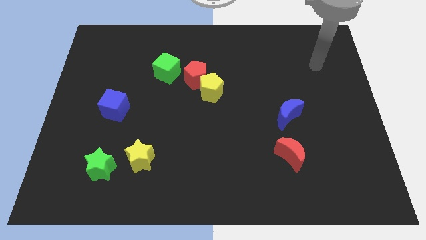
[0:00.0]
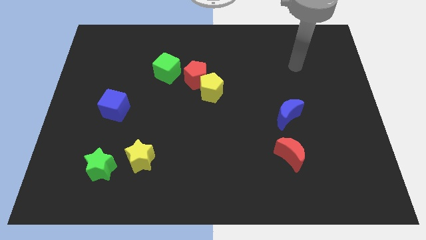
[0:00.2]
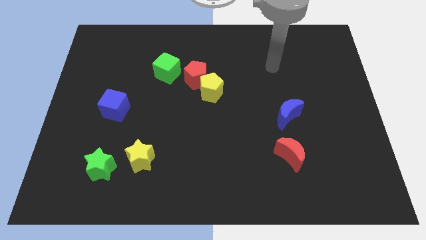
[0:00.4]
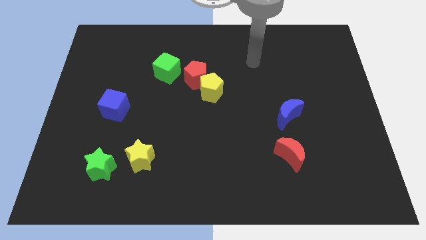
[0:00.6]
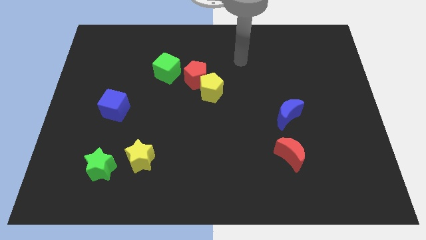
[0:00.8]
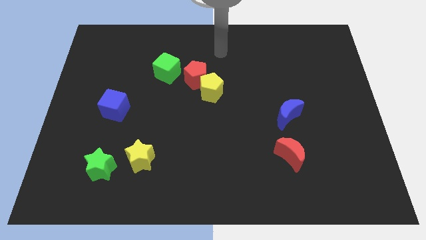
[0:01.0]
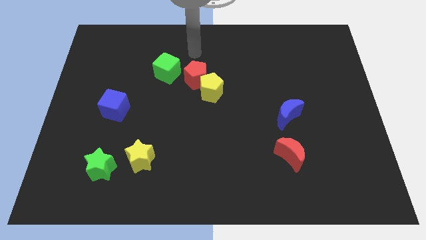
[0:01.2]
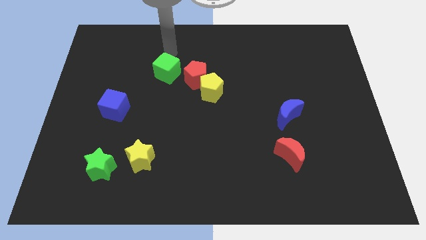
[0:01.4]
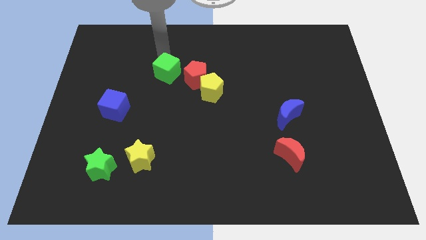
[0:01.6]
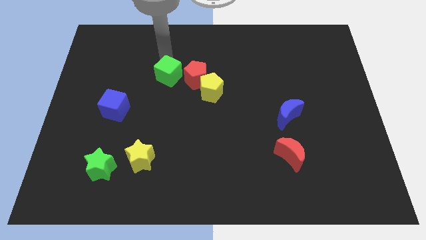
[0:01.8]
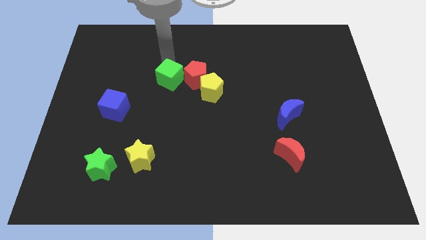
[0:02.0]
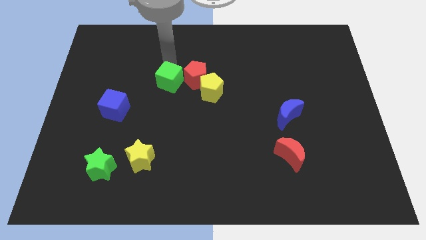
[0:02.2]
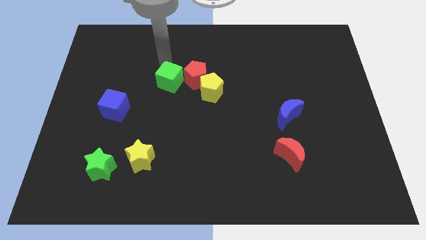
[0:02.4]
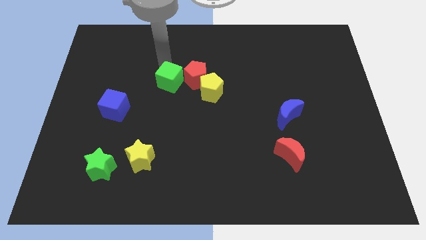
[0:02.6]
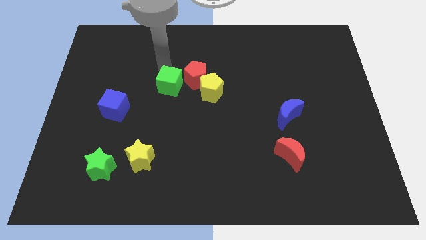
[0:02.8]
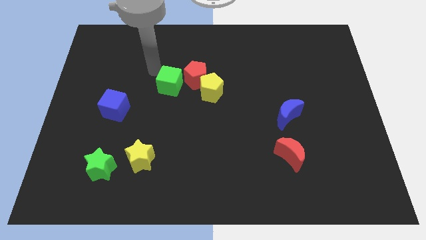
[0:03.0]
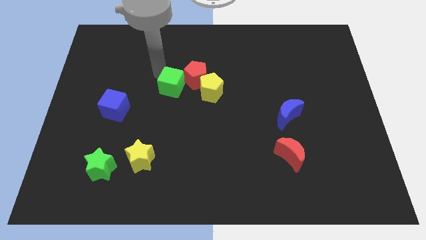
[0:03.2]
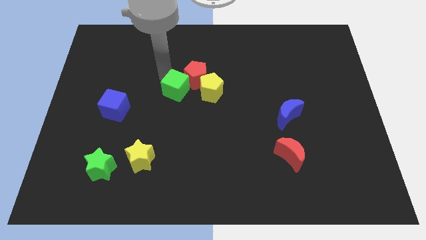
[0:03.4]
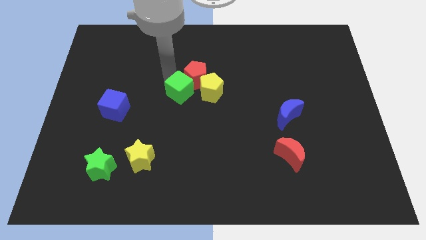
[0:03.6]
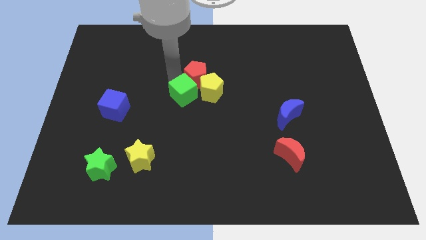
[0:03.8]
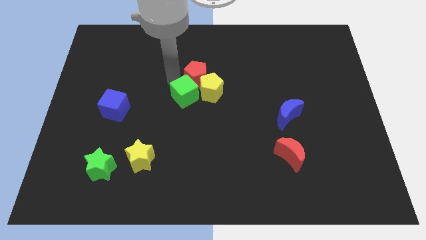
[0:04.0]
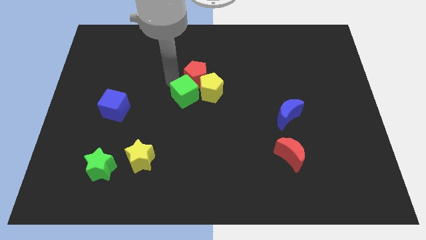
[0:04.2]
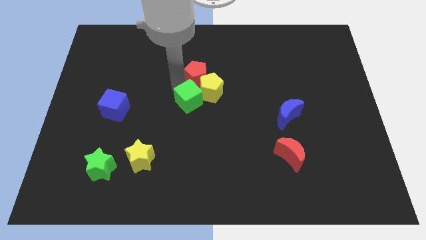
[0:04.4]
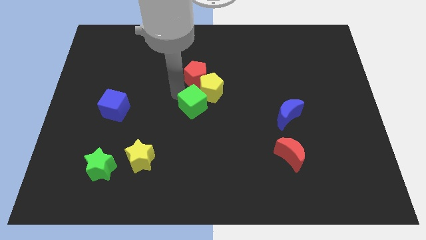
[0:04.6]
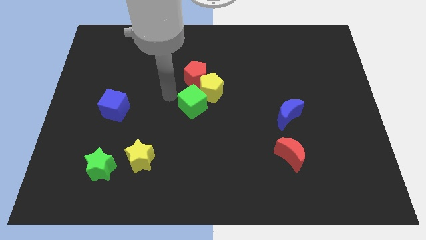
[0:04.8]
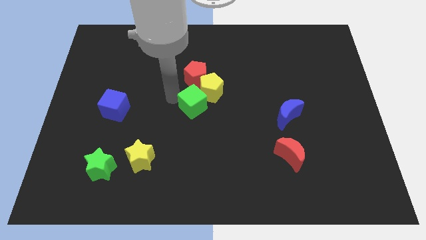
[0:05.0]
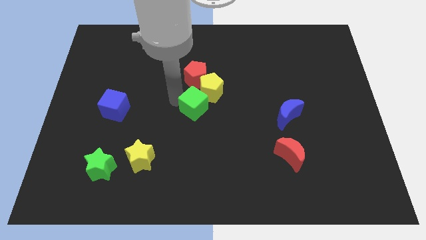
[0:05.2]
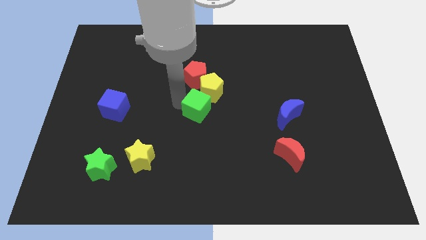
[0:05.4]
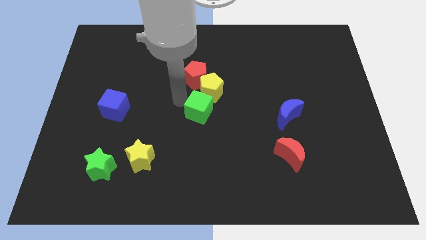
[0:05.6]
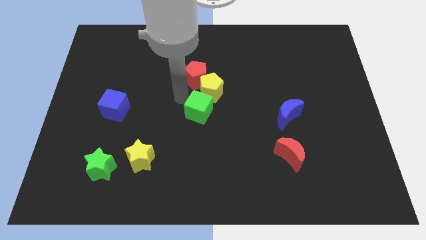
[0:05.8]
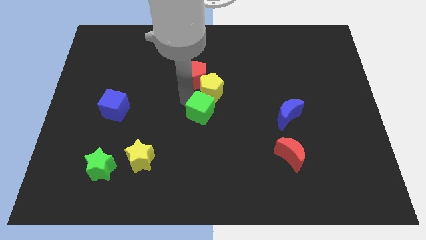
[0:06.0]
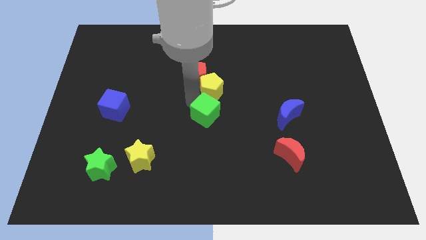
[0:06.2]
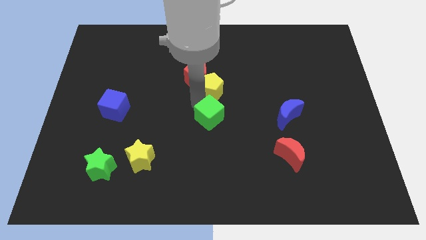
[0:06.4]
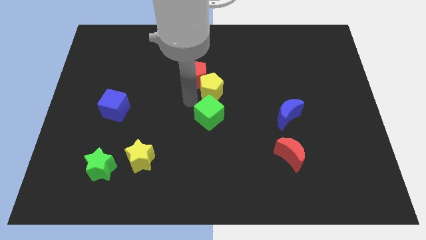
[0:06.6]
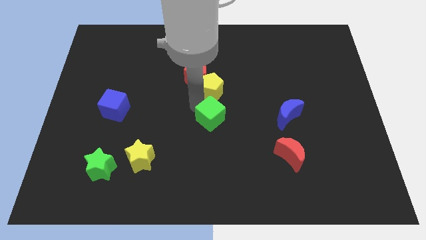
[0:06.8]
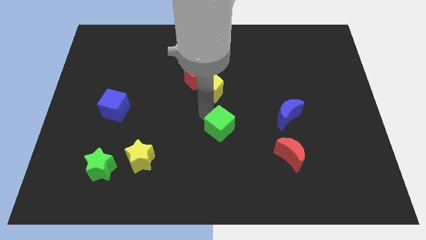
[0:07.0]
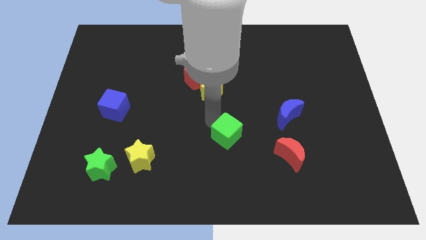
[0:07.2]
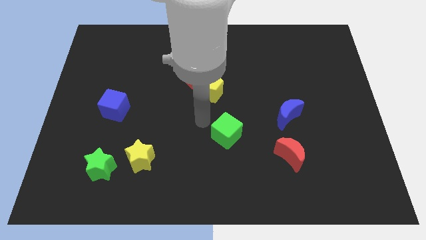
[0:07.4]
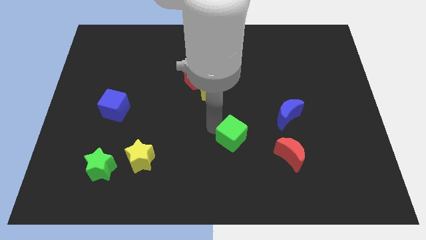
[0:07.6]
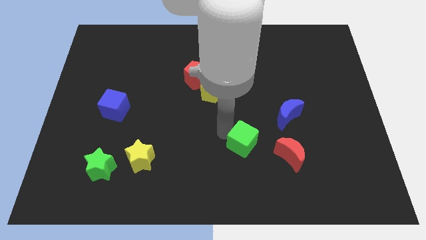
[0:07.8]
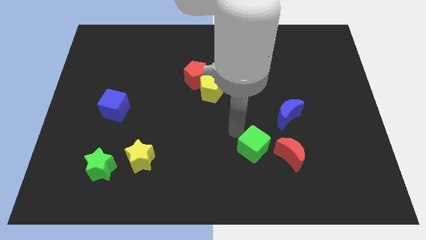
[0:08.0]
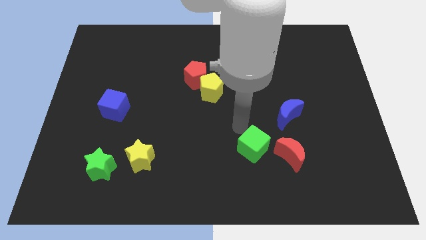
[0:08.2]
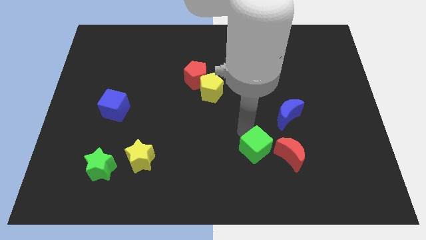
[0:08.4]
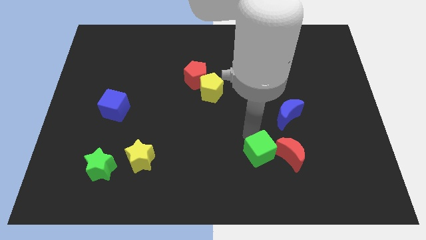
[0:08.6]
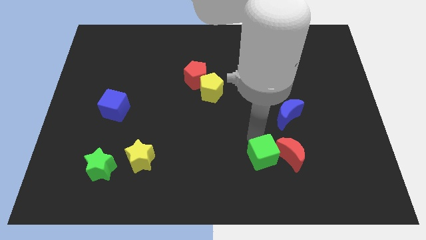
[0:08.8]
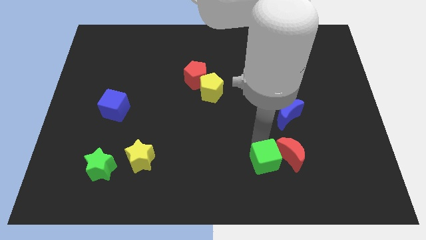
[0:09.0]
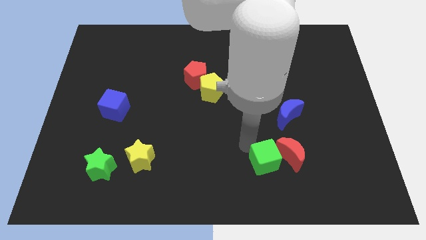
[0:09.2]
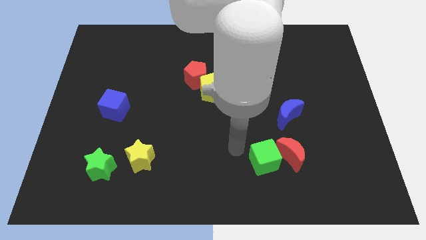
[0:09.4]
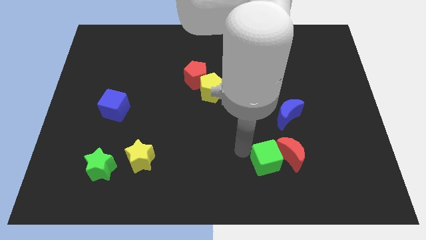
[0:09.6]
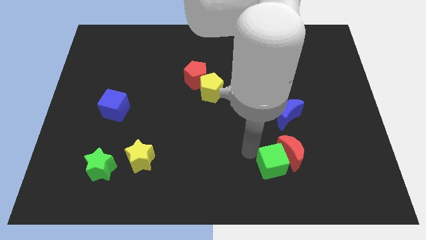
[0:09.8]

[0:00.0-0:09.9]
slide the green cube below the blue moon

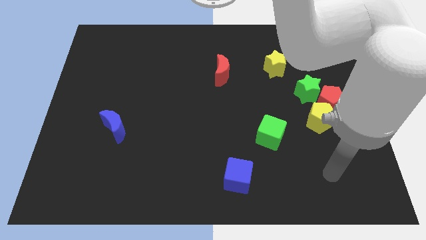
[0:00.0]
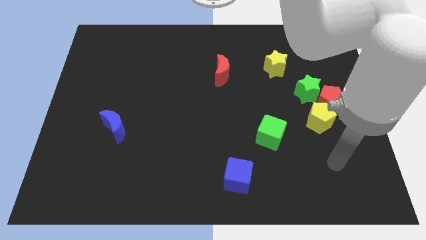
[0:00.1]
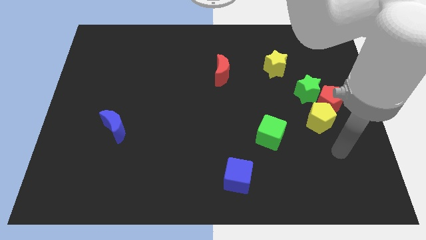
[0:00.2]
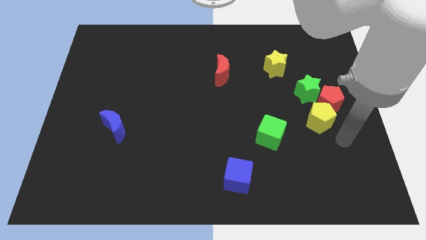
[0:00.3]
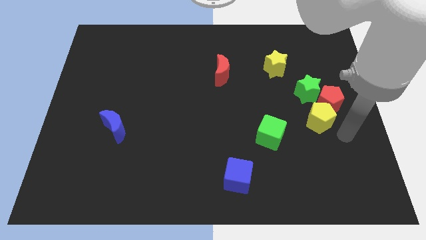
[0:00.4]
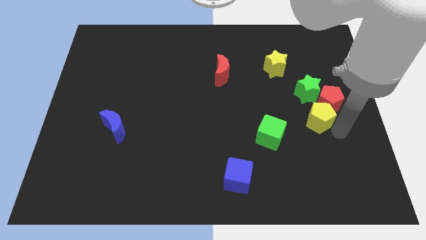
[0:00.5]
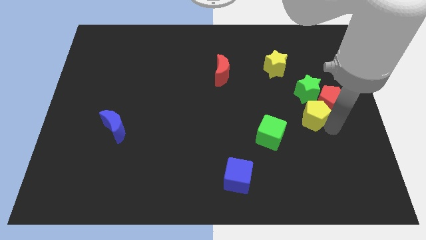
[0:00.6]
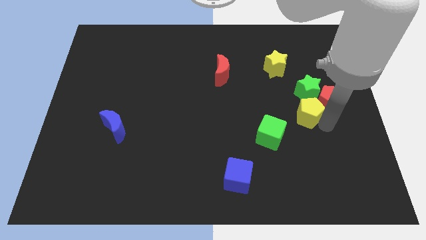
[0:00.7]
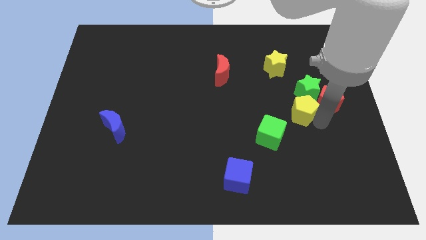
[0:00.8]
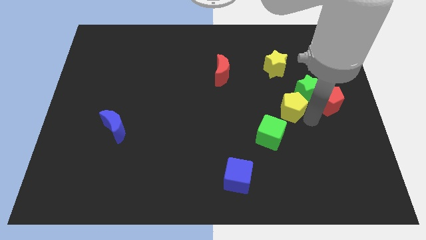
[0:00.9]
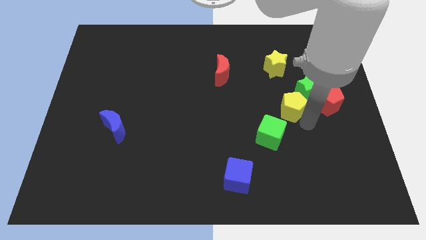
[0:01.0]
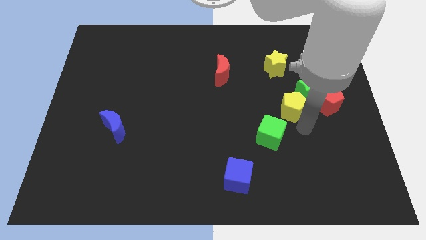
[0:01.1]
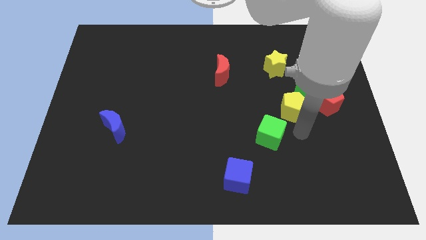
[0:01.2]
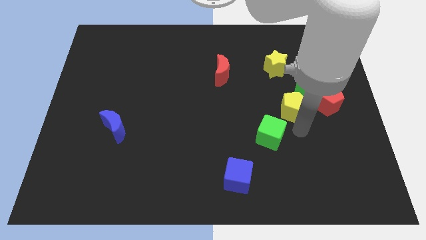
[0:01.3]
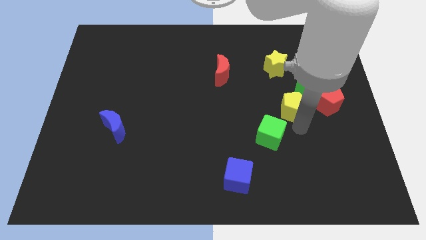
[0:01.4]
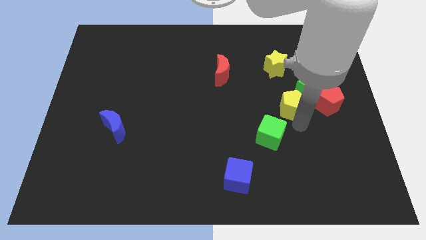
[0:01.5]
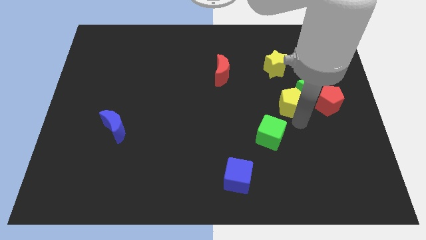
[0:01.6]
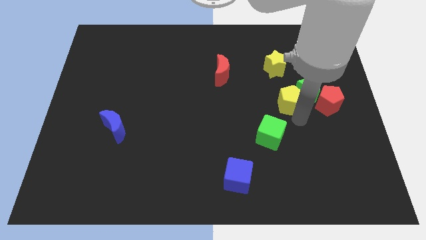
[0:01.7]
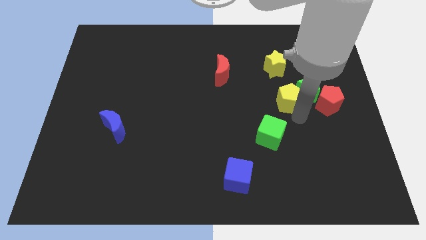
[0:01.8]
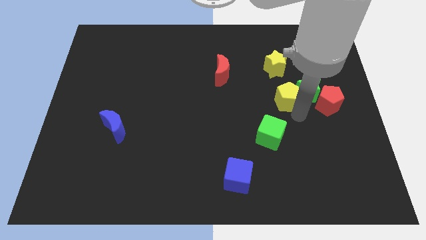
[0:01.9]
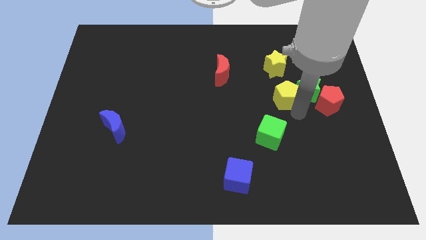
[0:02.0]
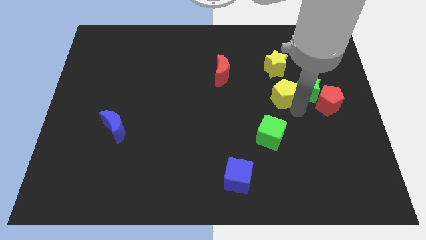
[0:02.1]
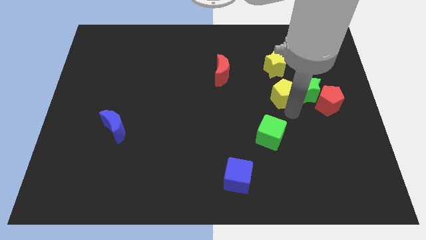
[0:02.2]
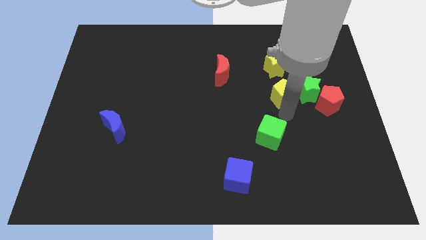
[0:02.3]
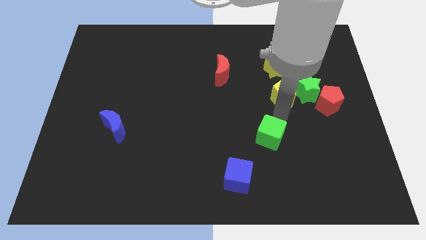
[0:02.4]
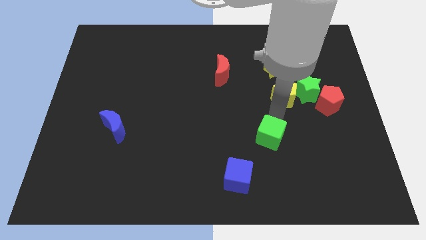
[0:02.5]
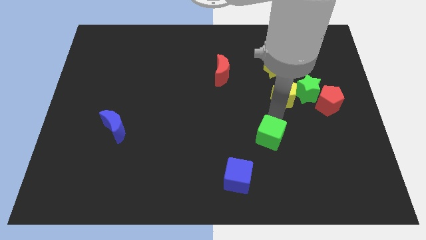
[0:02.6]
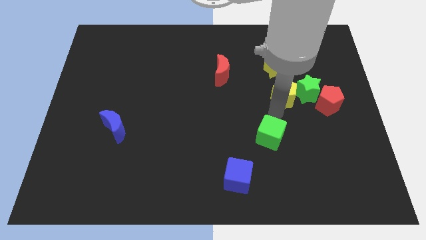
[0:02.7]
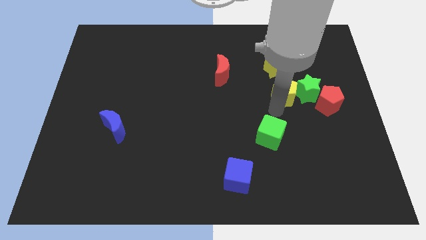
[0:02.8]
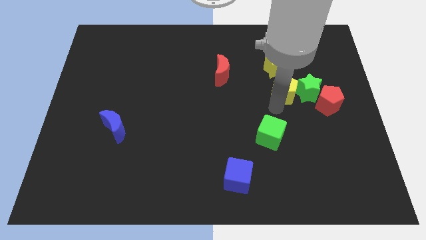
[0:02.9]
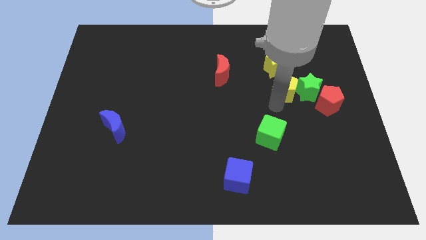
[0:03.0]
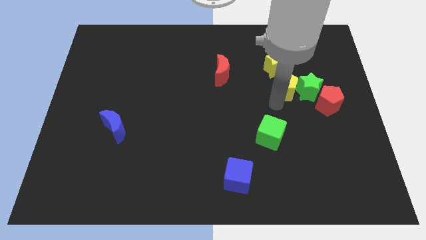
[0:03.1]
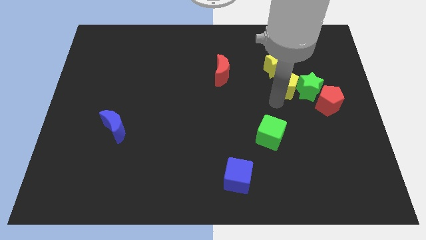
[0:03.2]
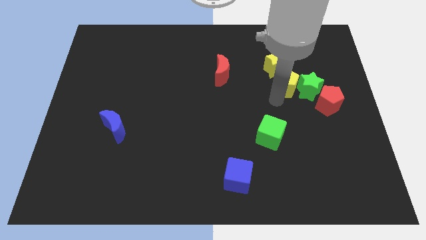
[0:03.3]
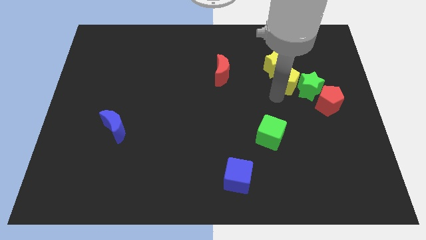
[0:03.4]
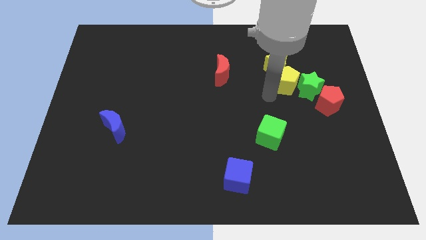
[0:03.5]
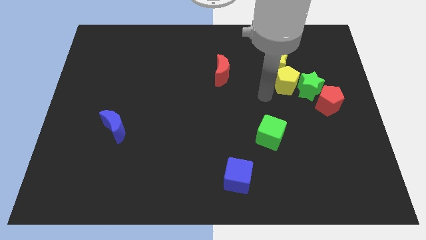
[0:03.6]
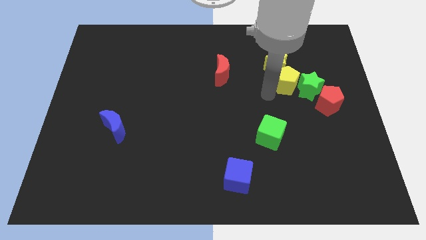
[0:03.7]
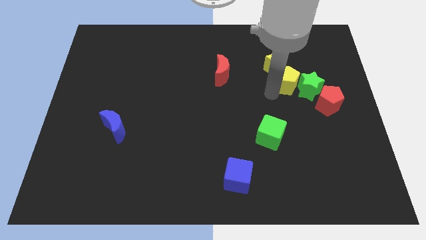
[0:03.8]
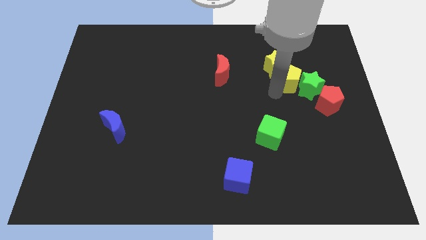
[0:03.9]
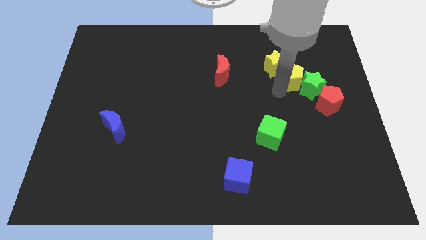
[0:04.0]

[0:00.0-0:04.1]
push the yellow pentagon to the right of the yellow star
